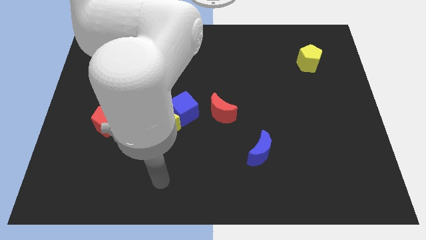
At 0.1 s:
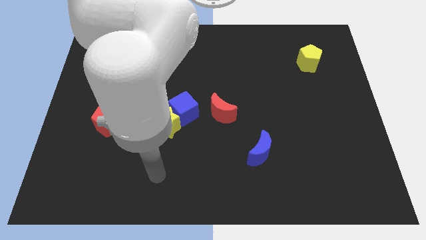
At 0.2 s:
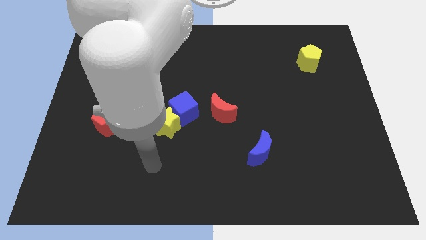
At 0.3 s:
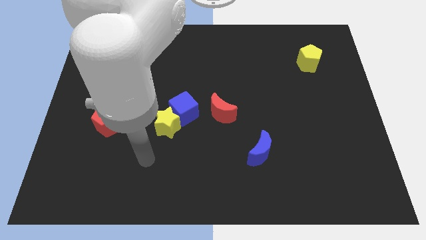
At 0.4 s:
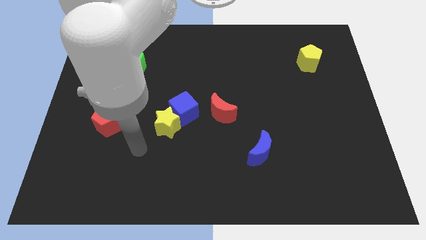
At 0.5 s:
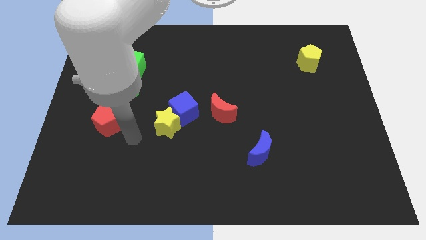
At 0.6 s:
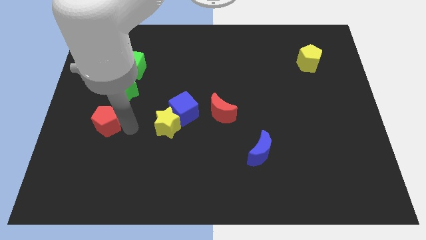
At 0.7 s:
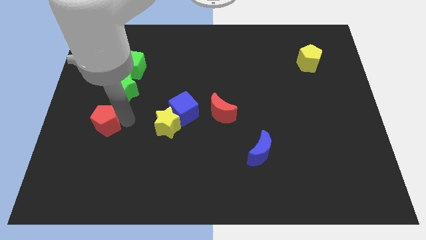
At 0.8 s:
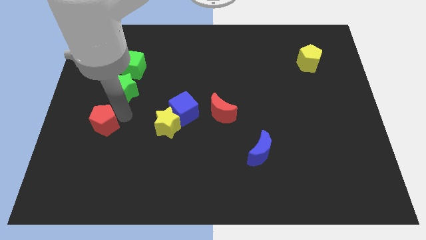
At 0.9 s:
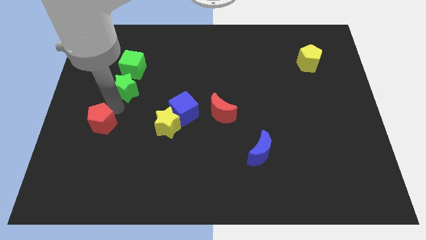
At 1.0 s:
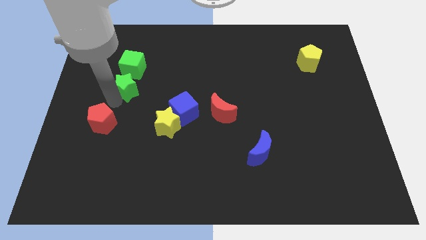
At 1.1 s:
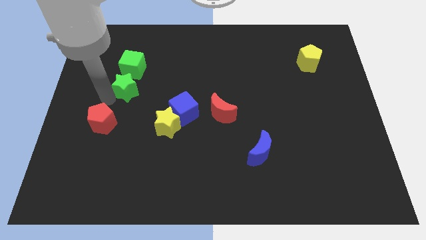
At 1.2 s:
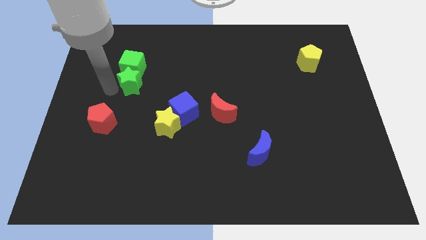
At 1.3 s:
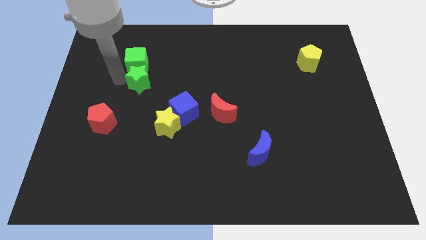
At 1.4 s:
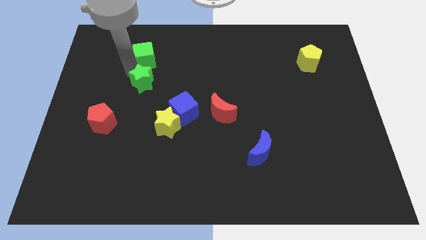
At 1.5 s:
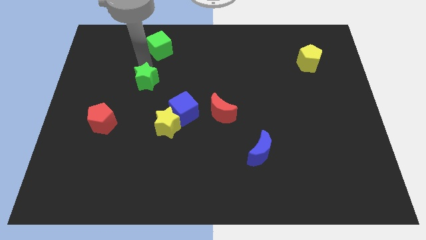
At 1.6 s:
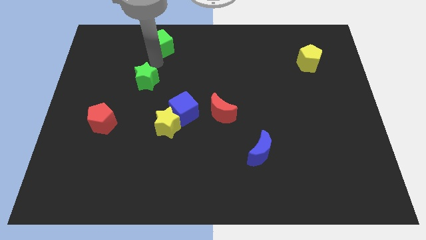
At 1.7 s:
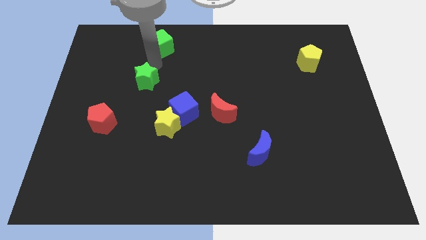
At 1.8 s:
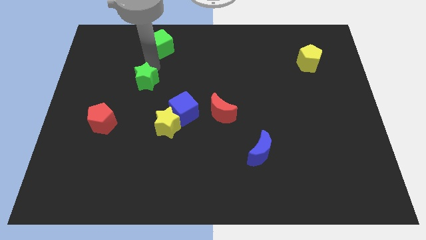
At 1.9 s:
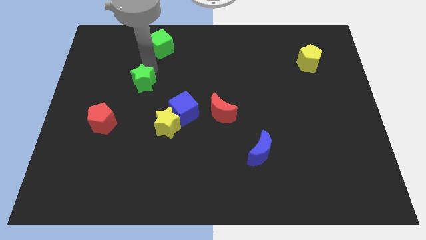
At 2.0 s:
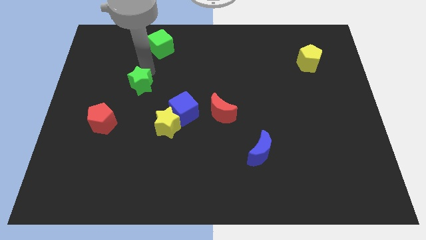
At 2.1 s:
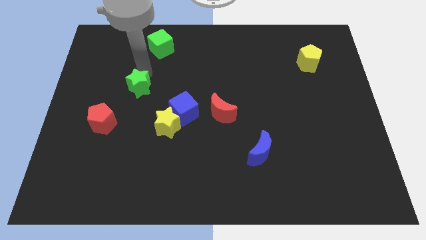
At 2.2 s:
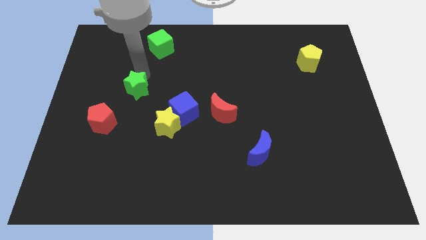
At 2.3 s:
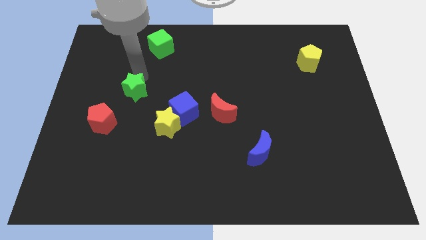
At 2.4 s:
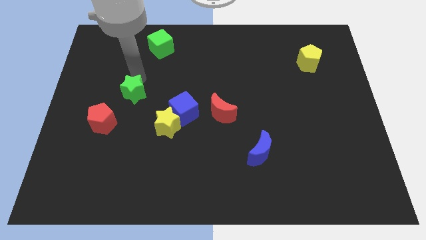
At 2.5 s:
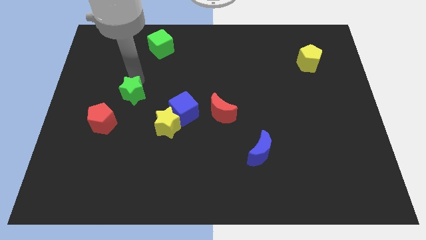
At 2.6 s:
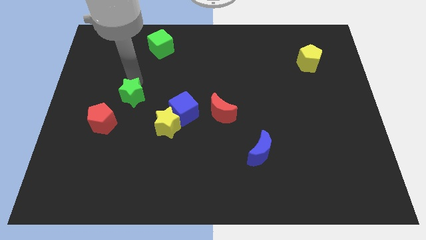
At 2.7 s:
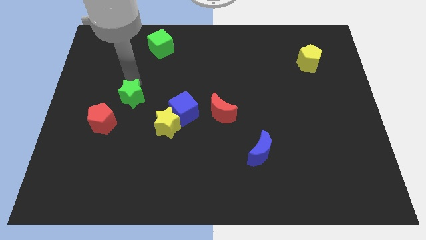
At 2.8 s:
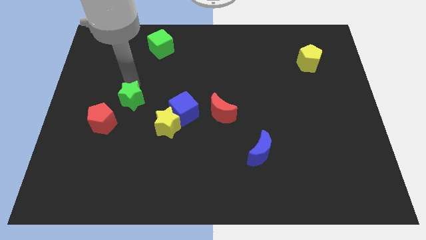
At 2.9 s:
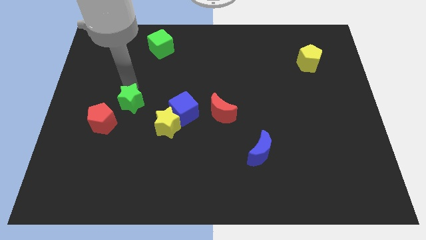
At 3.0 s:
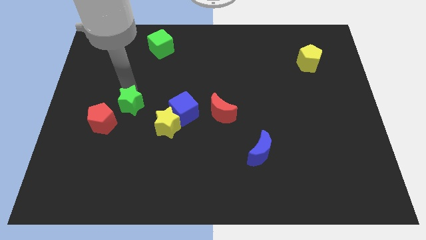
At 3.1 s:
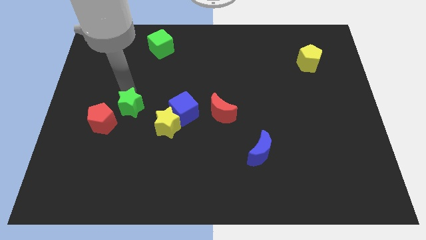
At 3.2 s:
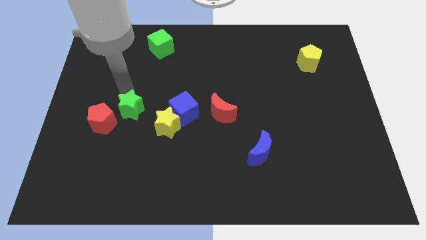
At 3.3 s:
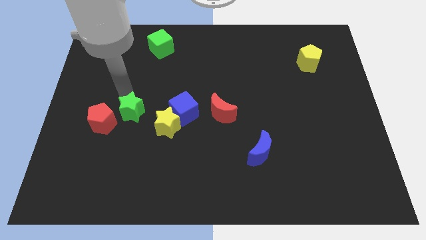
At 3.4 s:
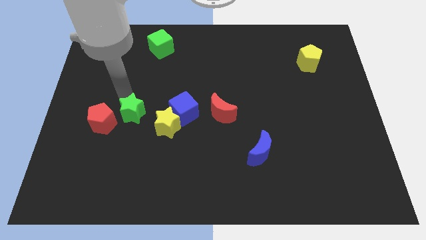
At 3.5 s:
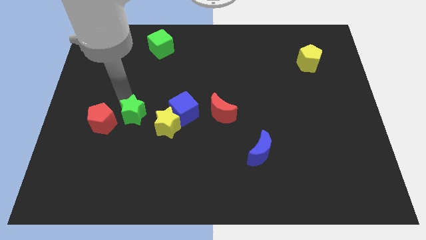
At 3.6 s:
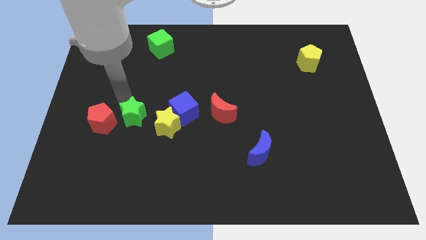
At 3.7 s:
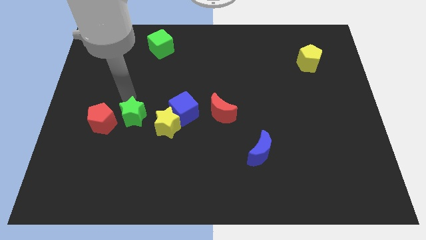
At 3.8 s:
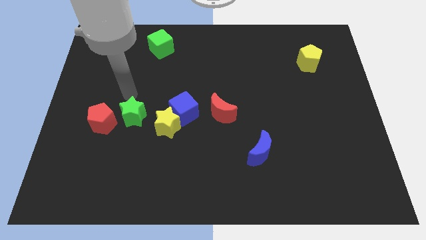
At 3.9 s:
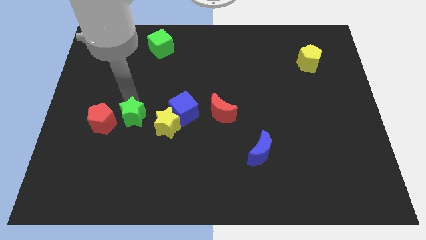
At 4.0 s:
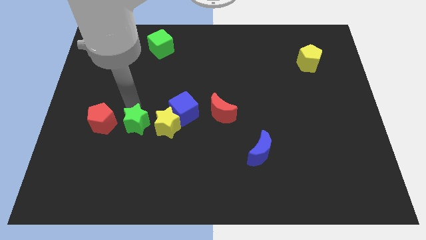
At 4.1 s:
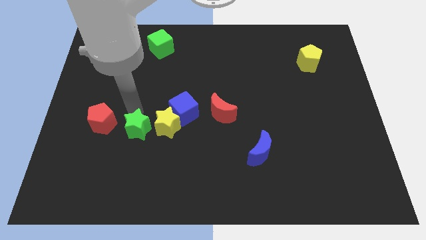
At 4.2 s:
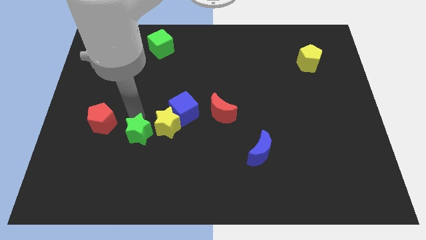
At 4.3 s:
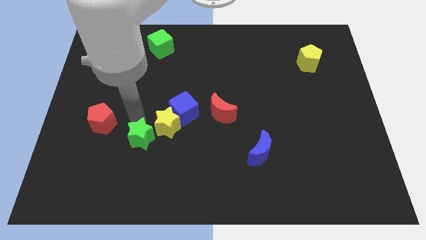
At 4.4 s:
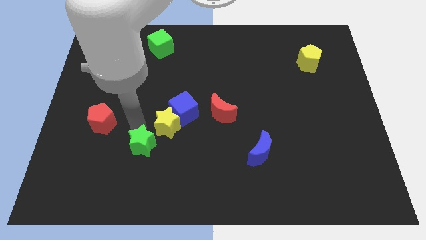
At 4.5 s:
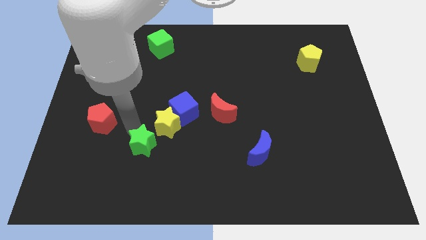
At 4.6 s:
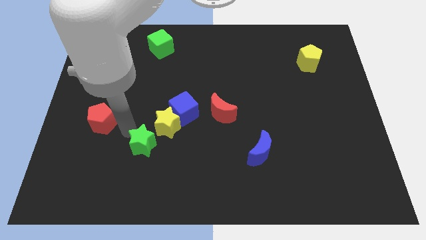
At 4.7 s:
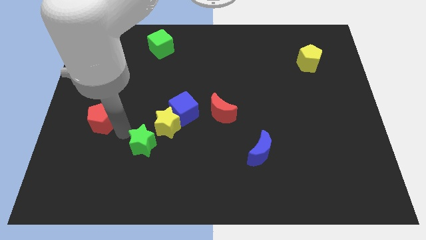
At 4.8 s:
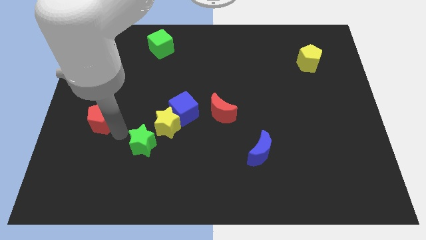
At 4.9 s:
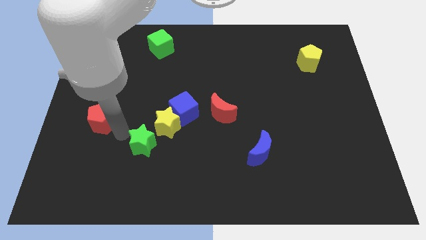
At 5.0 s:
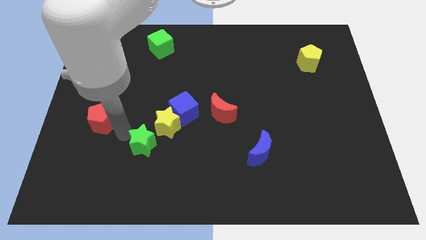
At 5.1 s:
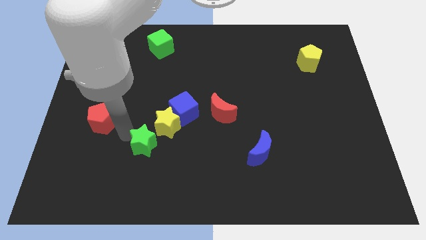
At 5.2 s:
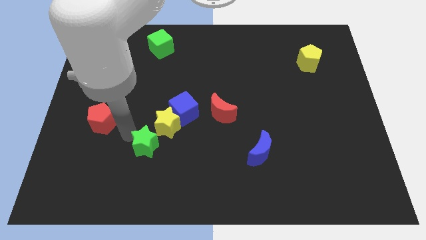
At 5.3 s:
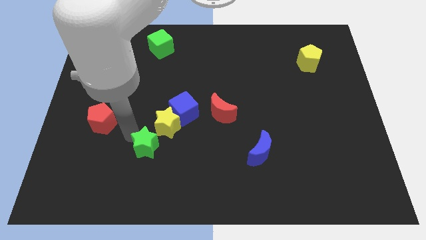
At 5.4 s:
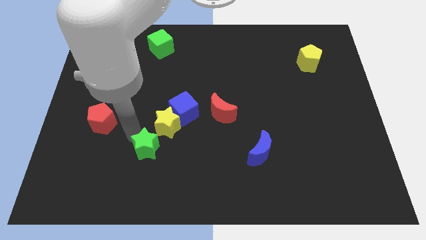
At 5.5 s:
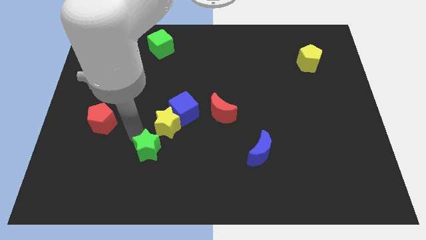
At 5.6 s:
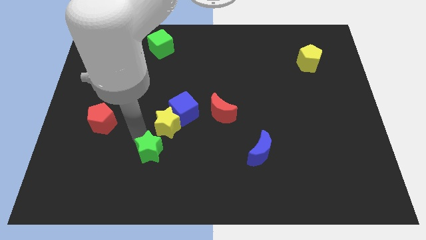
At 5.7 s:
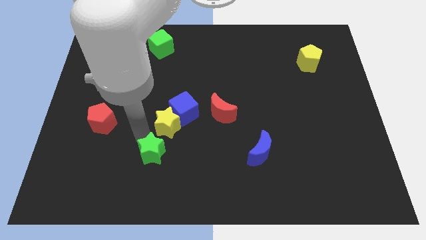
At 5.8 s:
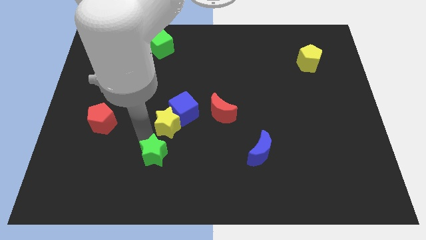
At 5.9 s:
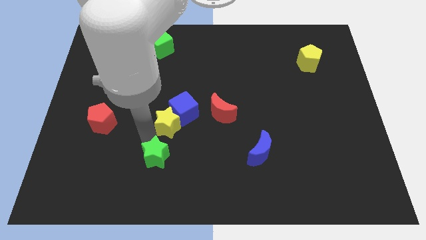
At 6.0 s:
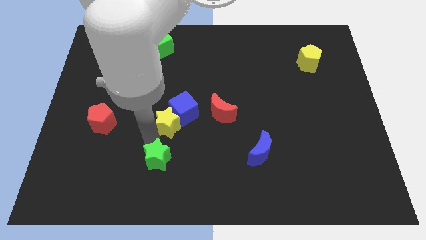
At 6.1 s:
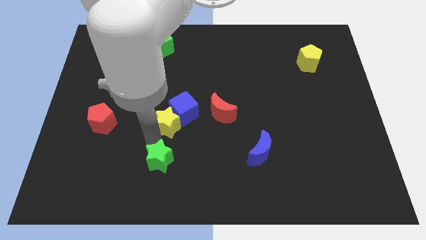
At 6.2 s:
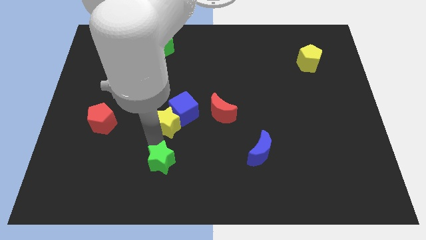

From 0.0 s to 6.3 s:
slide the green star downwards and to the right

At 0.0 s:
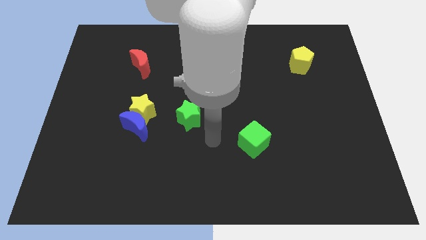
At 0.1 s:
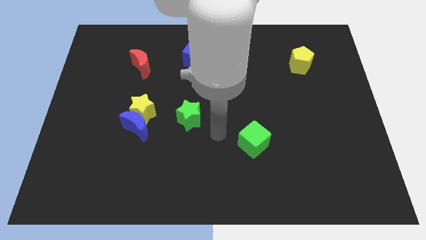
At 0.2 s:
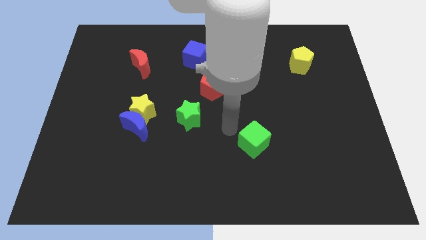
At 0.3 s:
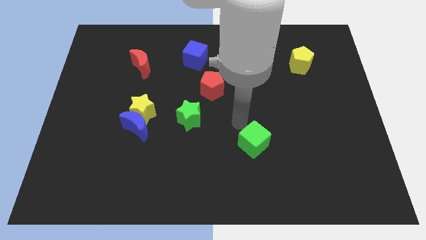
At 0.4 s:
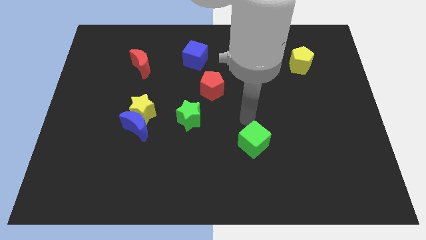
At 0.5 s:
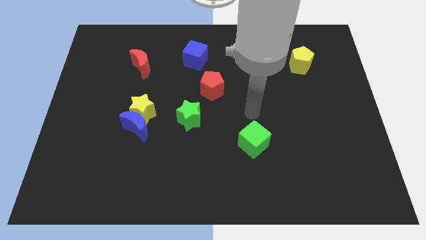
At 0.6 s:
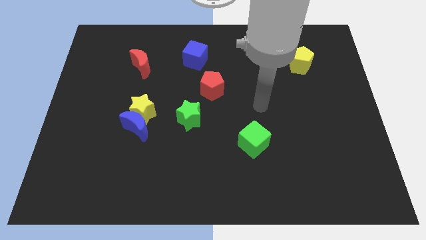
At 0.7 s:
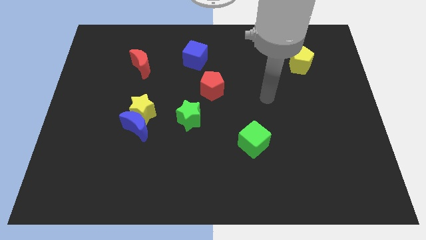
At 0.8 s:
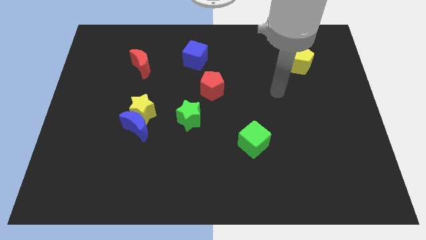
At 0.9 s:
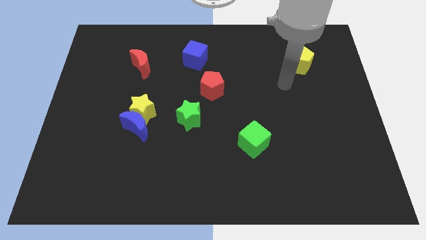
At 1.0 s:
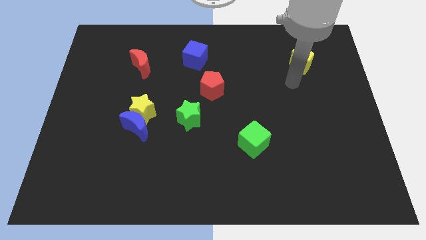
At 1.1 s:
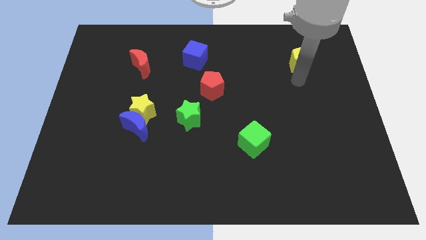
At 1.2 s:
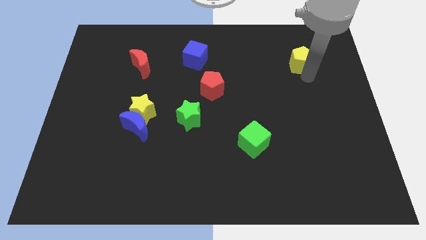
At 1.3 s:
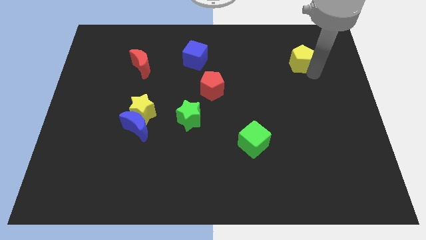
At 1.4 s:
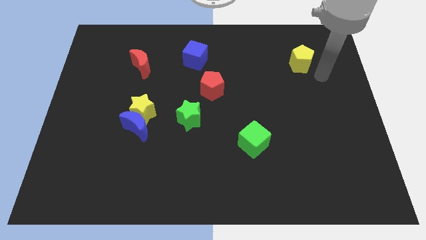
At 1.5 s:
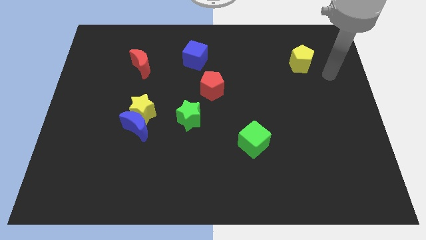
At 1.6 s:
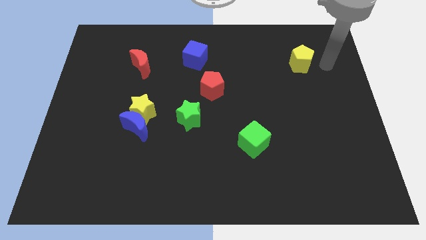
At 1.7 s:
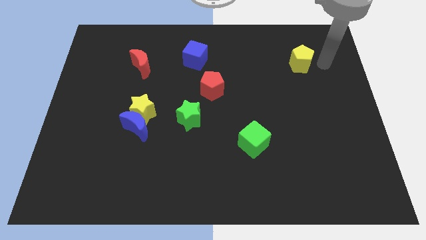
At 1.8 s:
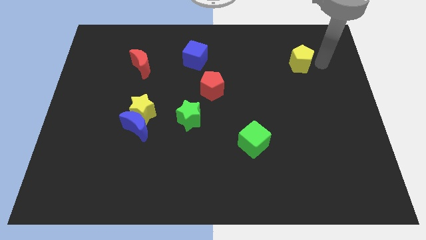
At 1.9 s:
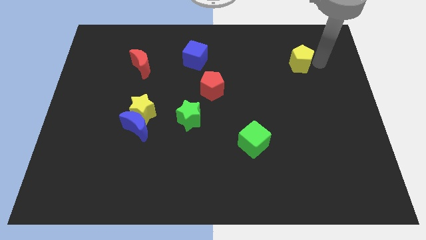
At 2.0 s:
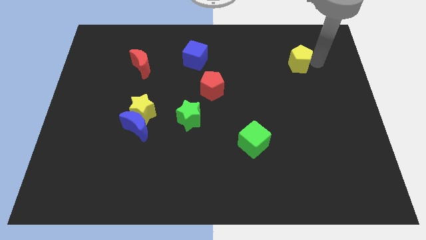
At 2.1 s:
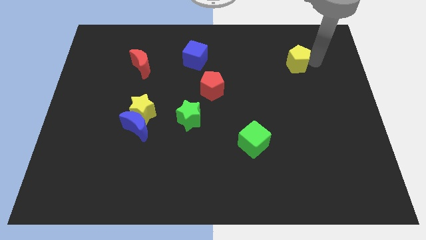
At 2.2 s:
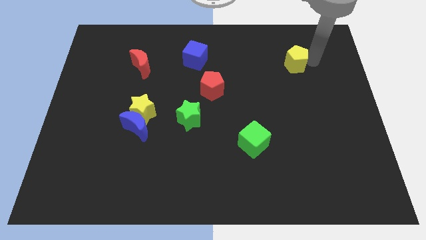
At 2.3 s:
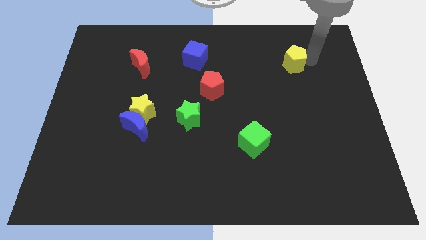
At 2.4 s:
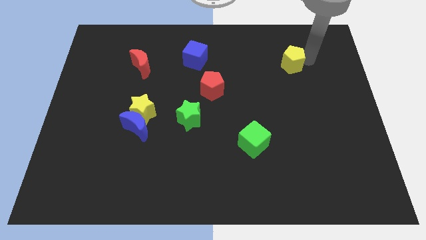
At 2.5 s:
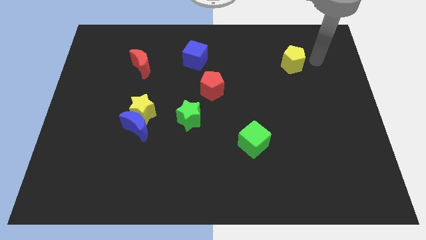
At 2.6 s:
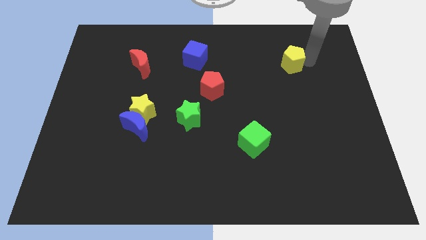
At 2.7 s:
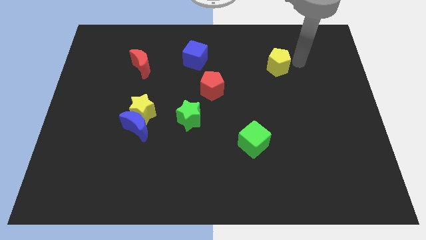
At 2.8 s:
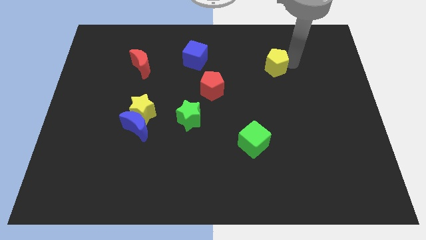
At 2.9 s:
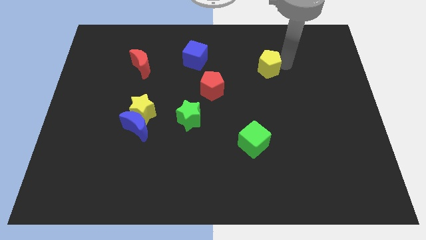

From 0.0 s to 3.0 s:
slightly push the yellow pentagon to the left
